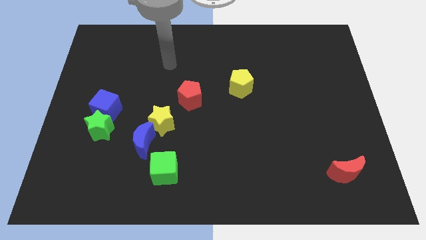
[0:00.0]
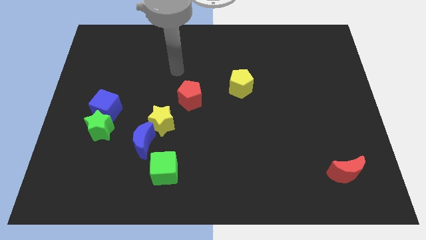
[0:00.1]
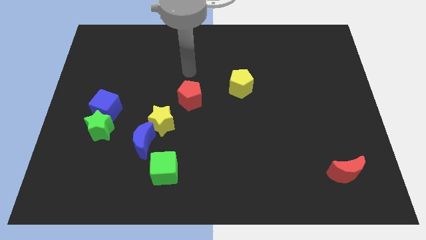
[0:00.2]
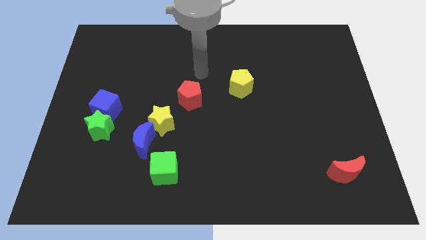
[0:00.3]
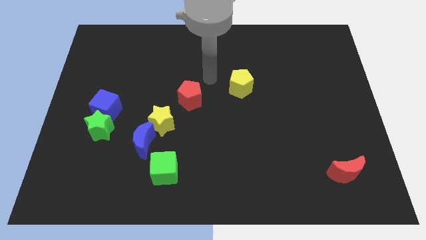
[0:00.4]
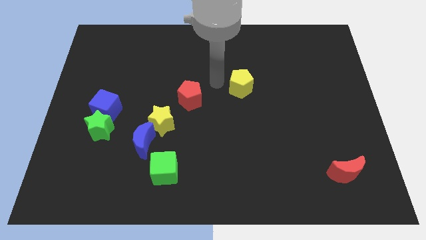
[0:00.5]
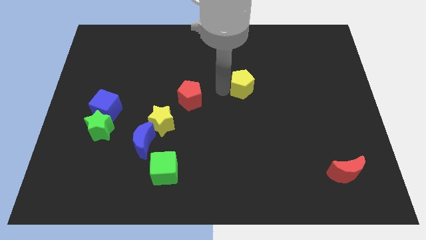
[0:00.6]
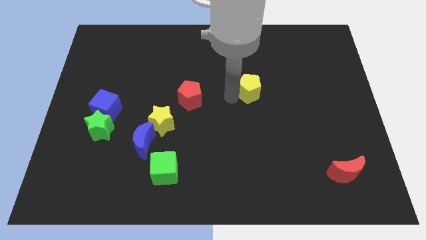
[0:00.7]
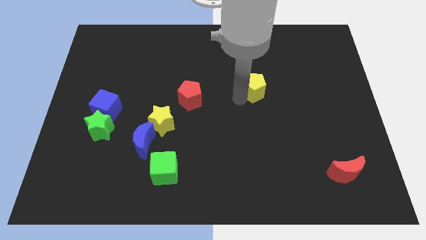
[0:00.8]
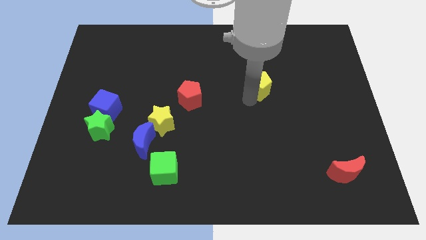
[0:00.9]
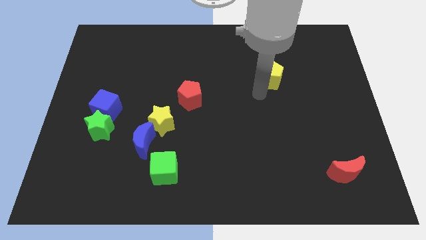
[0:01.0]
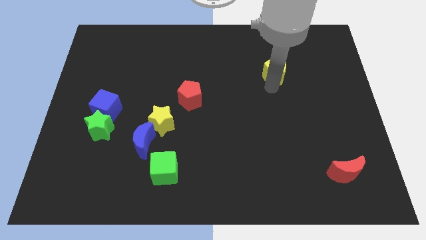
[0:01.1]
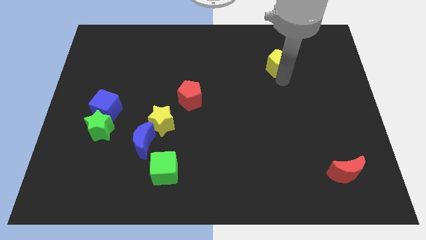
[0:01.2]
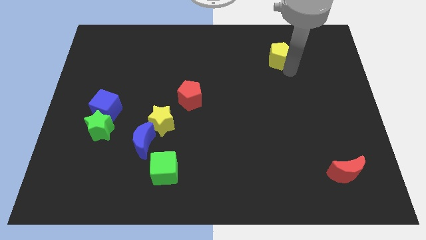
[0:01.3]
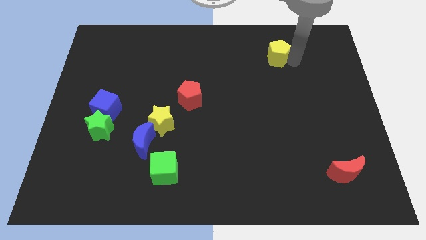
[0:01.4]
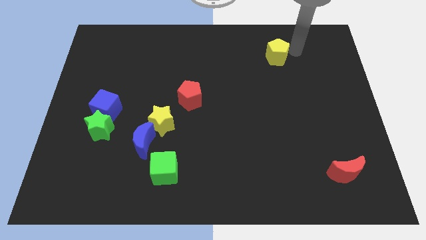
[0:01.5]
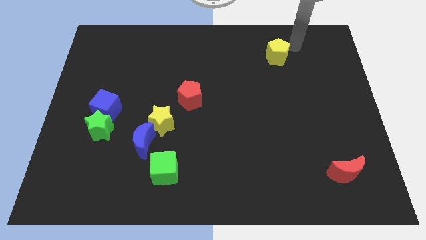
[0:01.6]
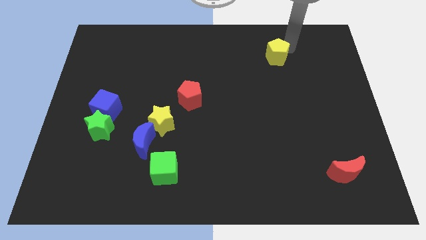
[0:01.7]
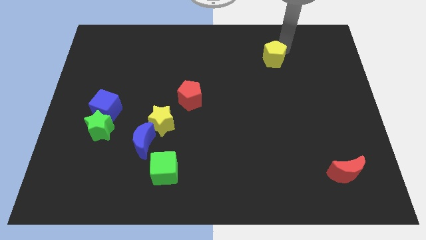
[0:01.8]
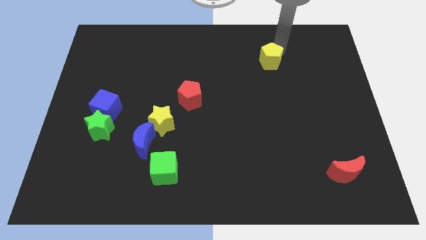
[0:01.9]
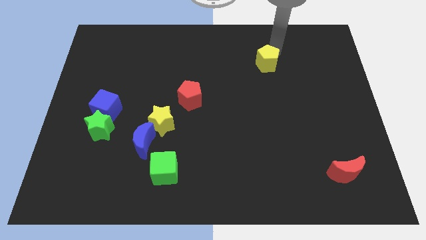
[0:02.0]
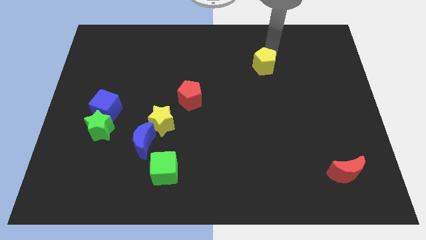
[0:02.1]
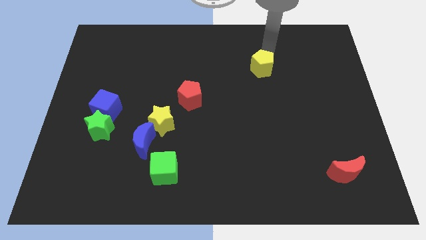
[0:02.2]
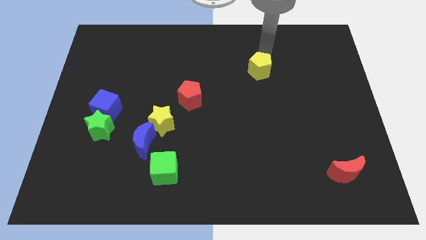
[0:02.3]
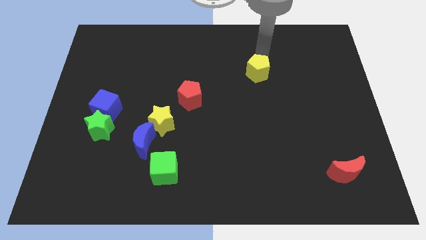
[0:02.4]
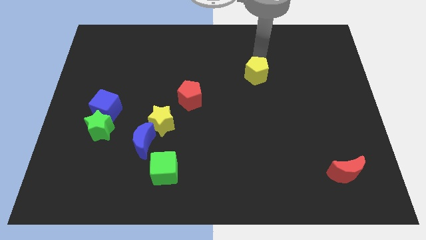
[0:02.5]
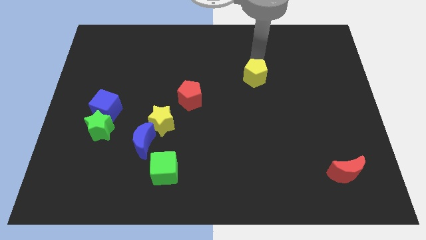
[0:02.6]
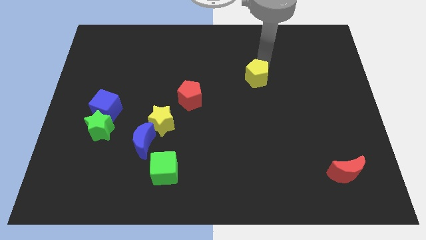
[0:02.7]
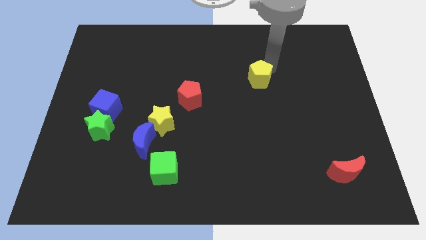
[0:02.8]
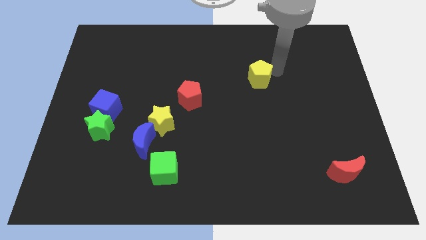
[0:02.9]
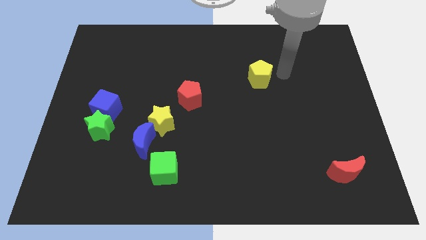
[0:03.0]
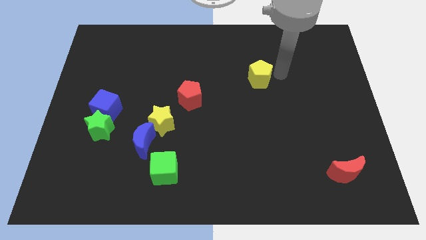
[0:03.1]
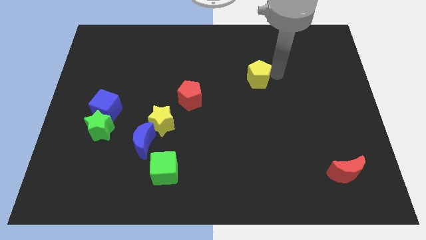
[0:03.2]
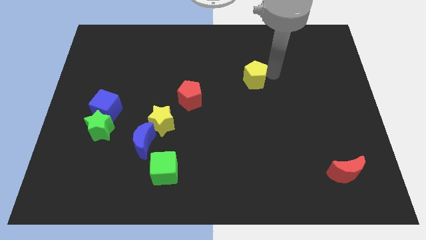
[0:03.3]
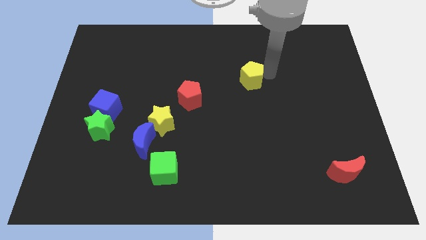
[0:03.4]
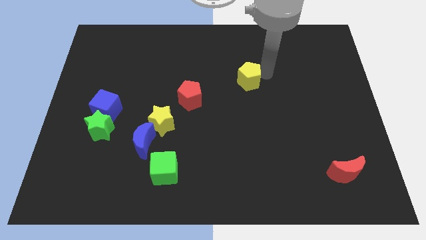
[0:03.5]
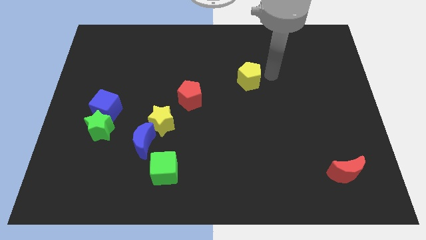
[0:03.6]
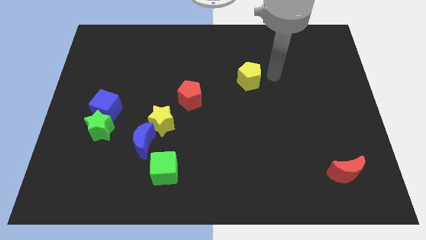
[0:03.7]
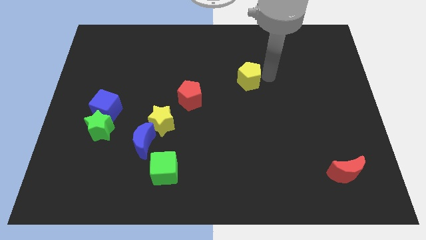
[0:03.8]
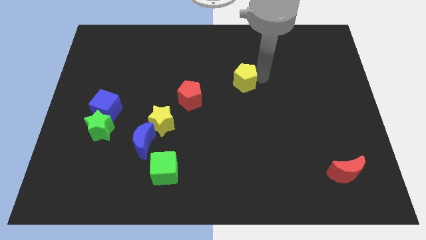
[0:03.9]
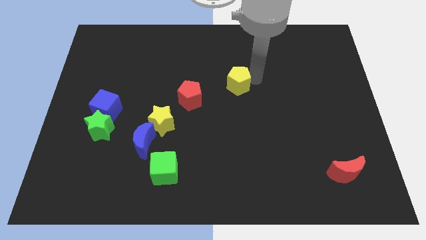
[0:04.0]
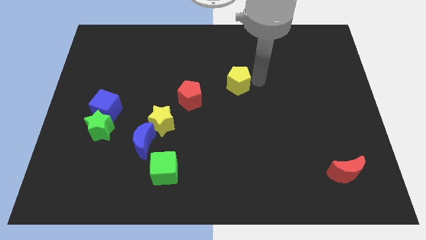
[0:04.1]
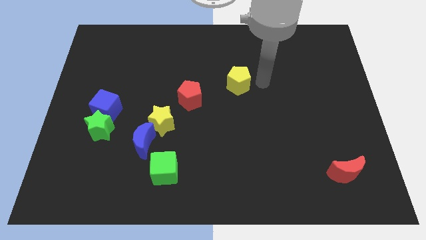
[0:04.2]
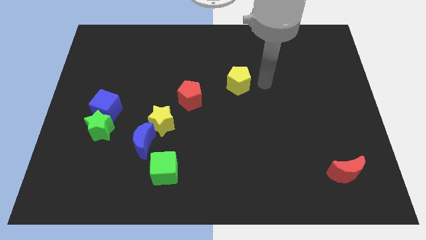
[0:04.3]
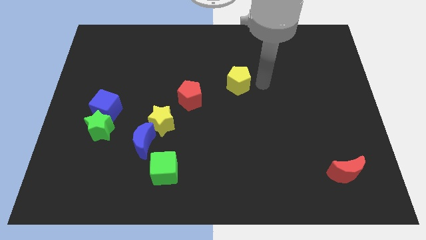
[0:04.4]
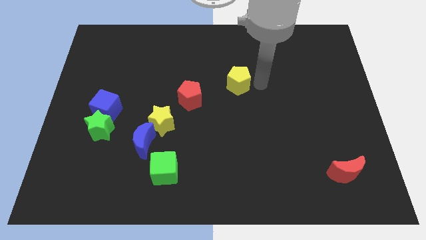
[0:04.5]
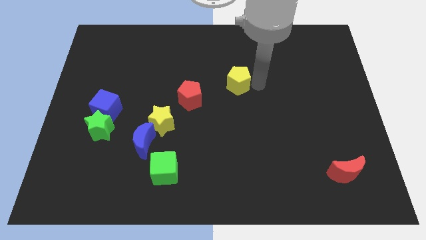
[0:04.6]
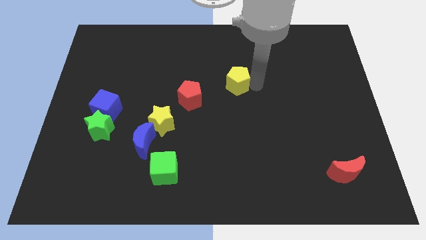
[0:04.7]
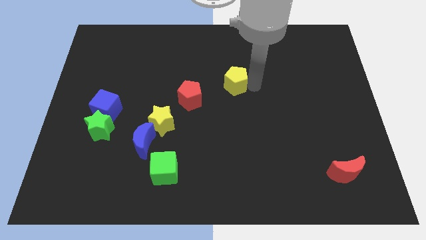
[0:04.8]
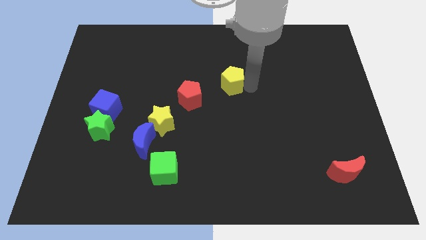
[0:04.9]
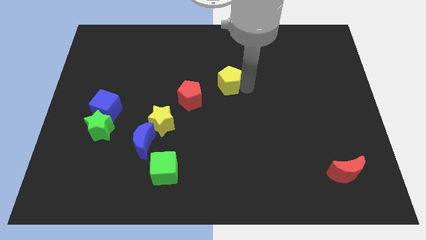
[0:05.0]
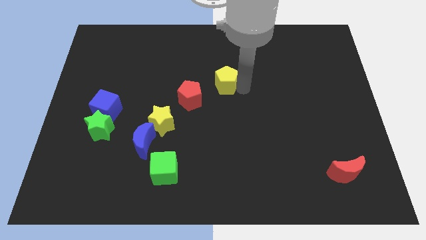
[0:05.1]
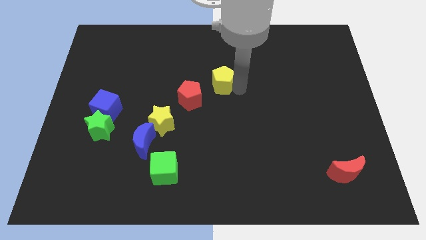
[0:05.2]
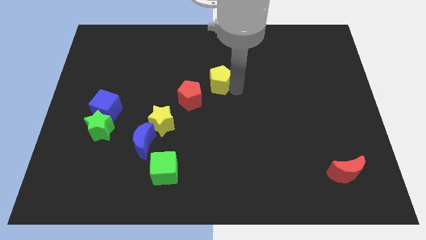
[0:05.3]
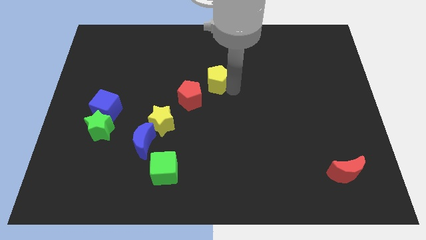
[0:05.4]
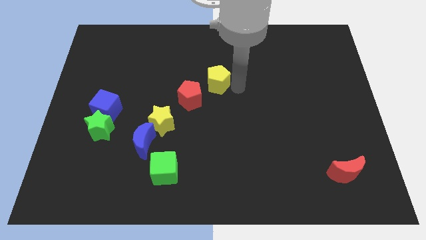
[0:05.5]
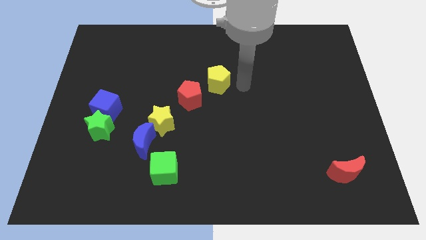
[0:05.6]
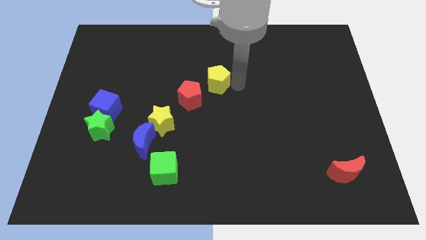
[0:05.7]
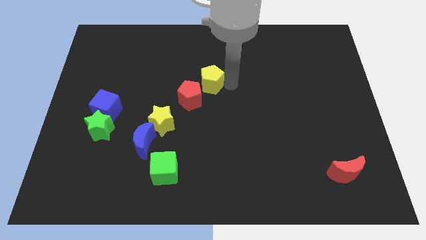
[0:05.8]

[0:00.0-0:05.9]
move the yellow pentagon left a bit

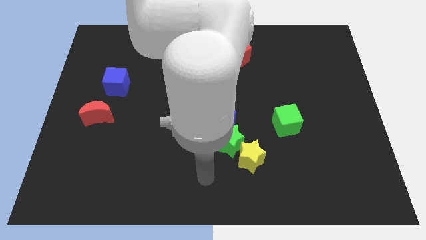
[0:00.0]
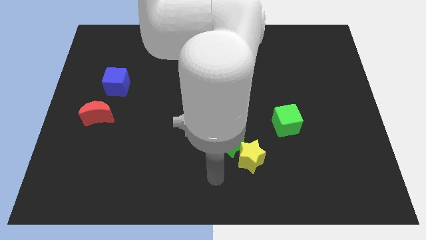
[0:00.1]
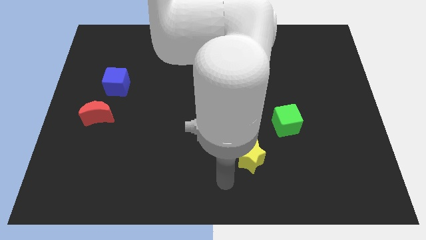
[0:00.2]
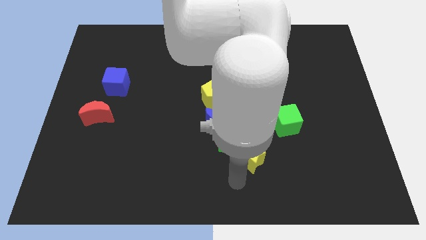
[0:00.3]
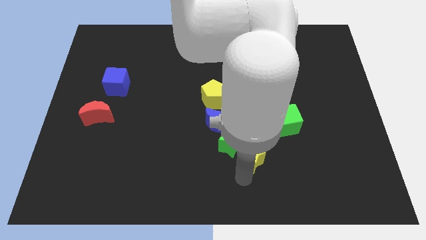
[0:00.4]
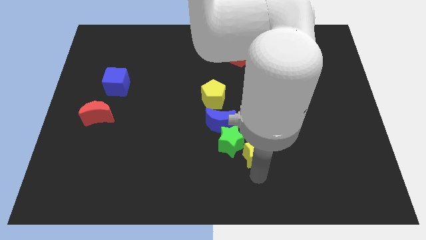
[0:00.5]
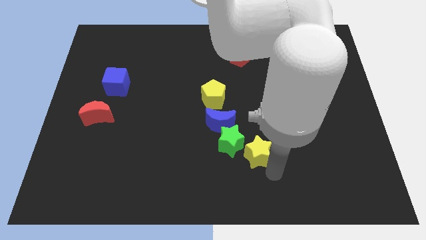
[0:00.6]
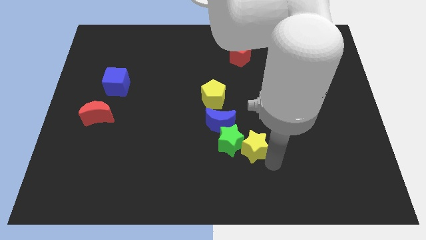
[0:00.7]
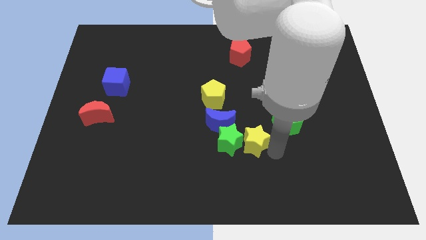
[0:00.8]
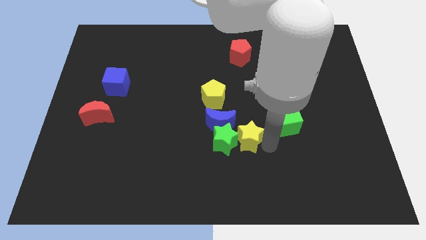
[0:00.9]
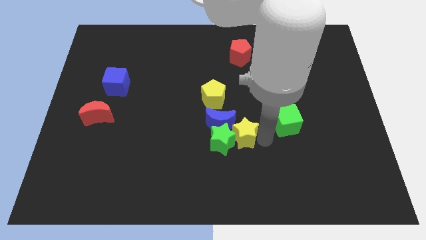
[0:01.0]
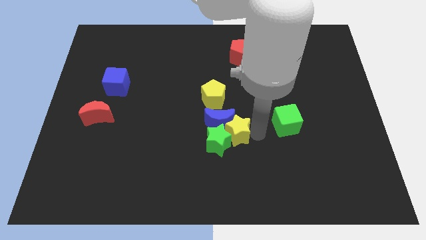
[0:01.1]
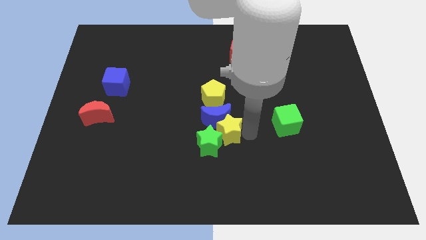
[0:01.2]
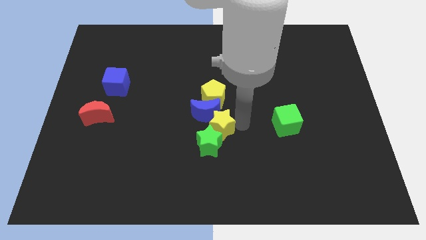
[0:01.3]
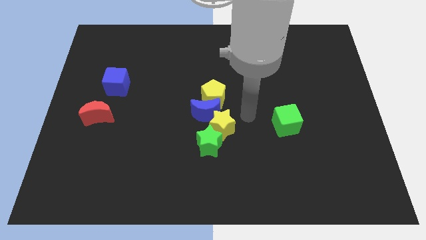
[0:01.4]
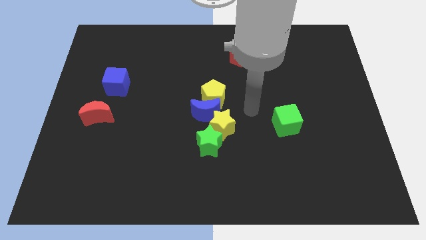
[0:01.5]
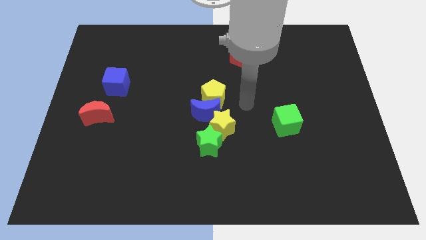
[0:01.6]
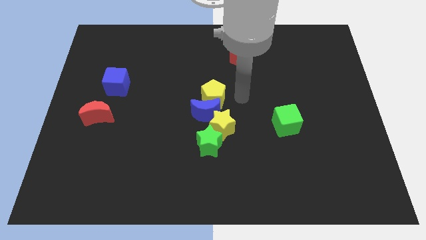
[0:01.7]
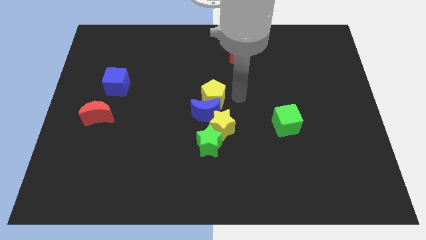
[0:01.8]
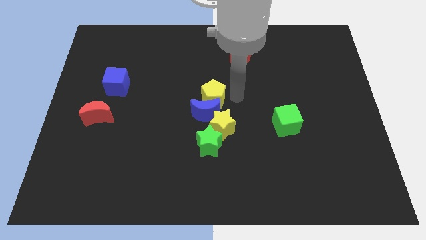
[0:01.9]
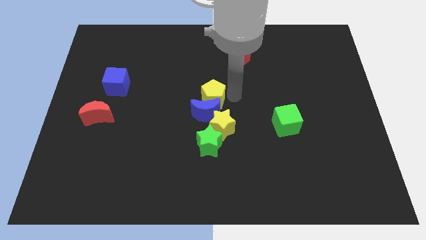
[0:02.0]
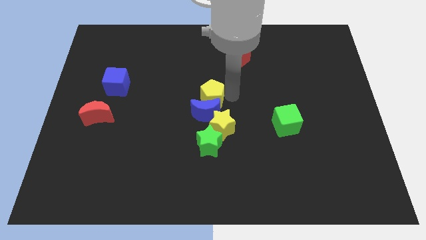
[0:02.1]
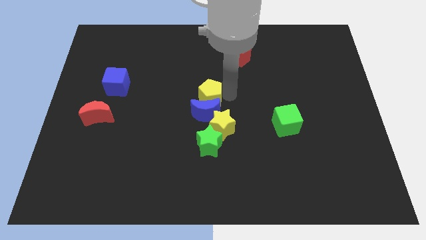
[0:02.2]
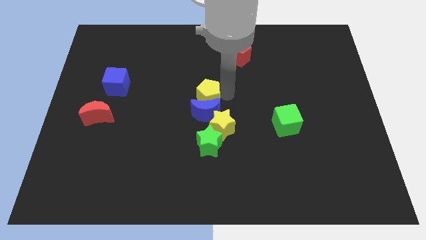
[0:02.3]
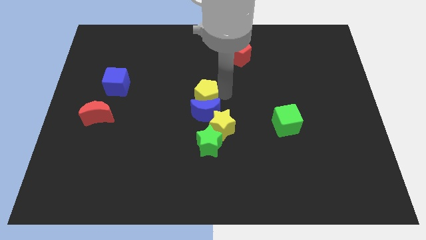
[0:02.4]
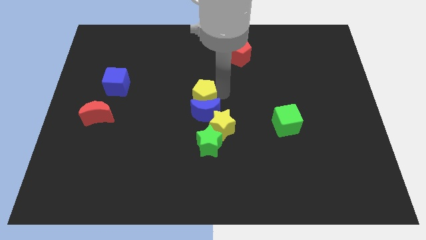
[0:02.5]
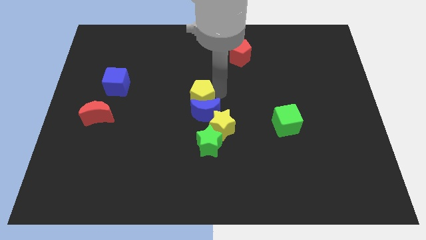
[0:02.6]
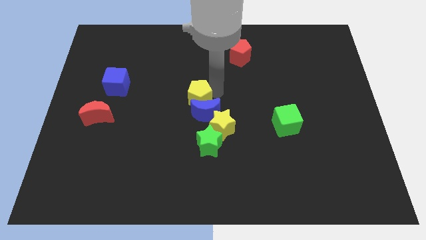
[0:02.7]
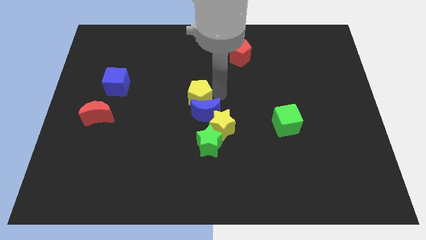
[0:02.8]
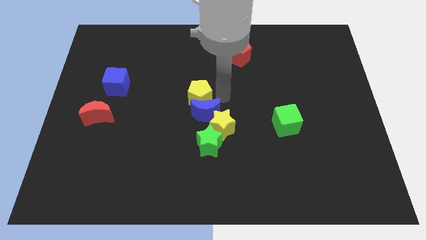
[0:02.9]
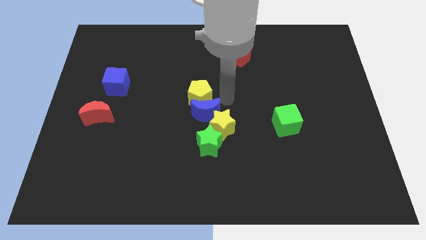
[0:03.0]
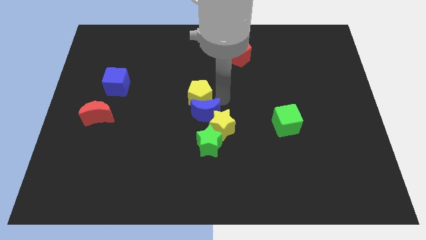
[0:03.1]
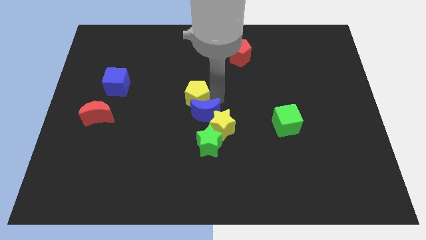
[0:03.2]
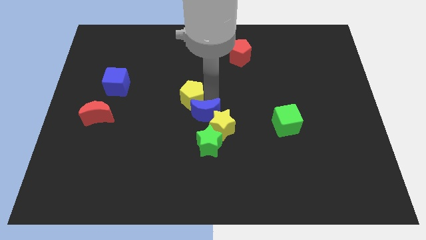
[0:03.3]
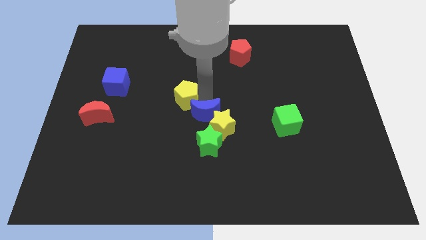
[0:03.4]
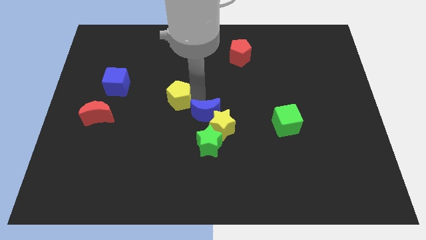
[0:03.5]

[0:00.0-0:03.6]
slightly move the yellow pentagon to the left
